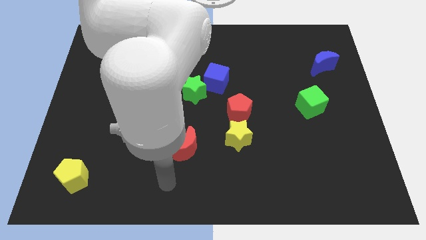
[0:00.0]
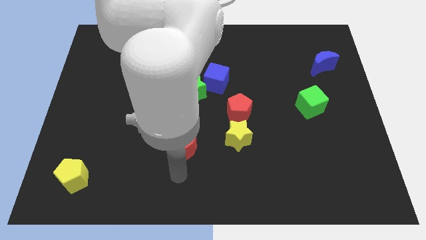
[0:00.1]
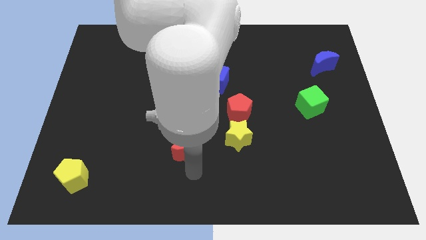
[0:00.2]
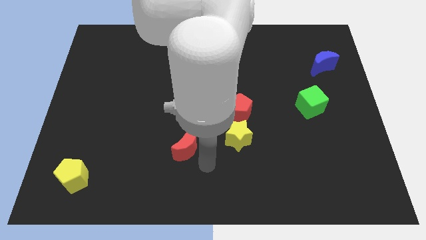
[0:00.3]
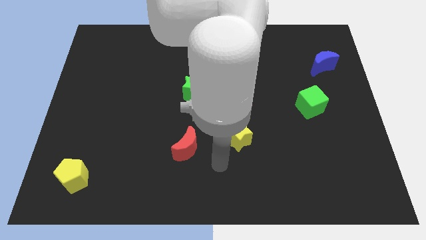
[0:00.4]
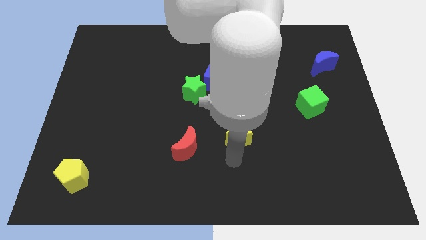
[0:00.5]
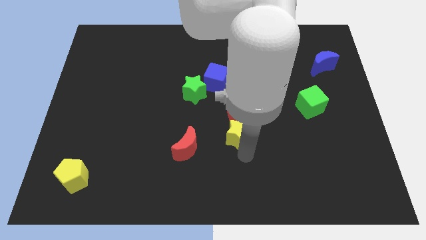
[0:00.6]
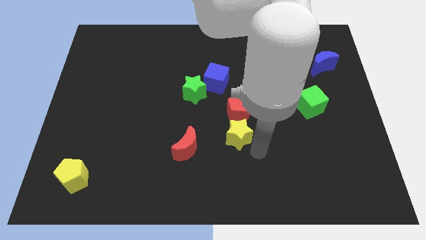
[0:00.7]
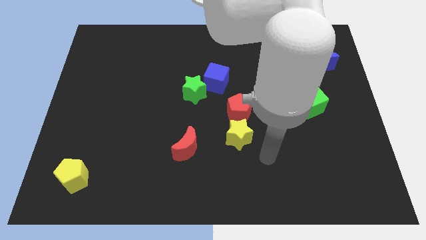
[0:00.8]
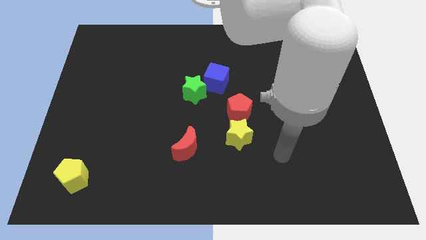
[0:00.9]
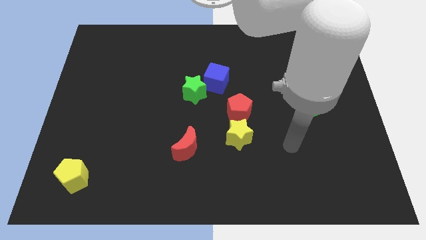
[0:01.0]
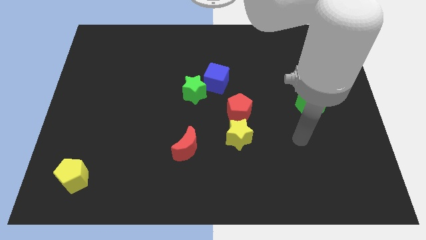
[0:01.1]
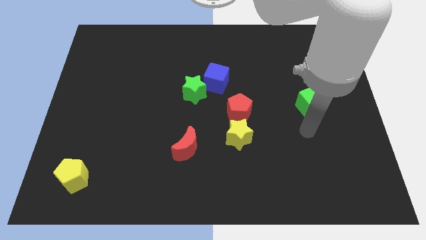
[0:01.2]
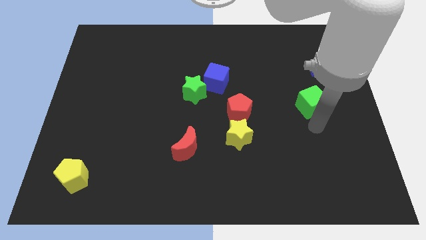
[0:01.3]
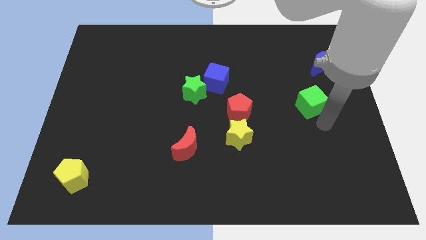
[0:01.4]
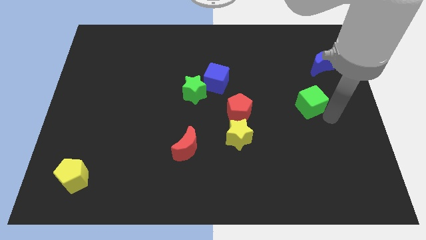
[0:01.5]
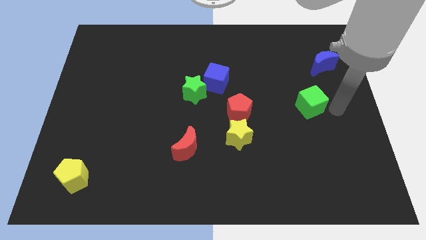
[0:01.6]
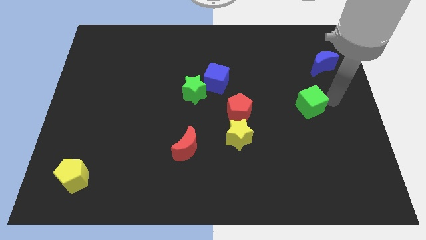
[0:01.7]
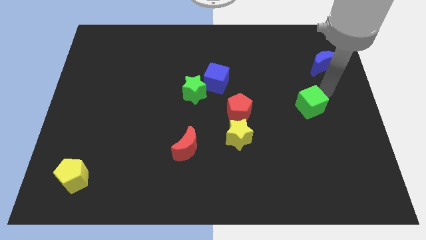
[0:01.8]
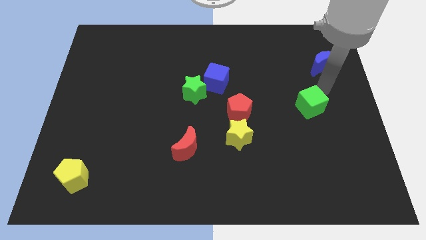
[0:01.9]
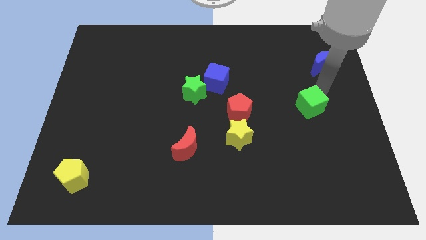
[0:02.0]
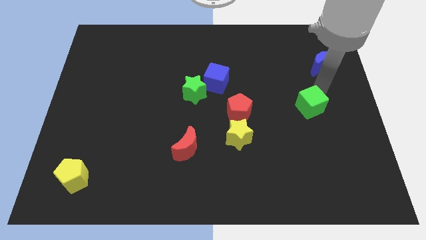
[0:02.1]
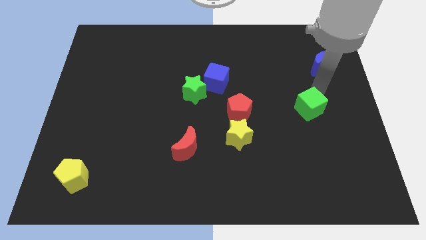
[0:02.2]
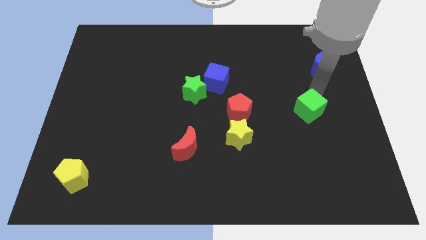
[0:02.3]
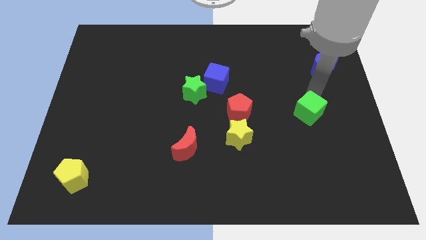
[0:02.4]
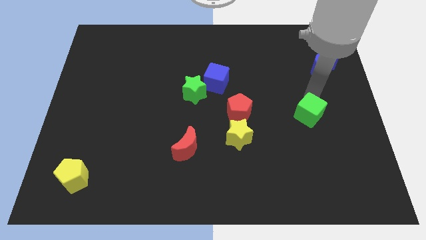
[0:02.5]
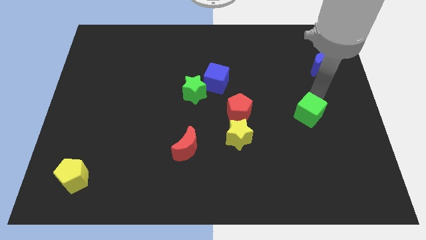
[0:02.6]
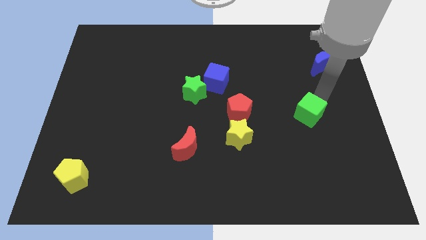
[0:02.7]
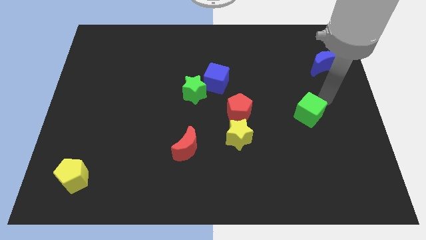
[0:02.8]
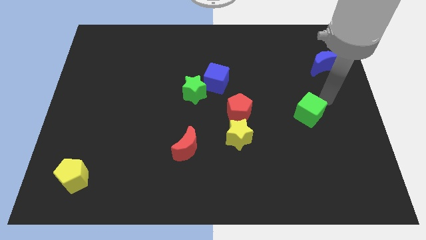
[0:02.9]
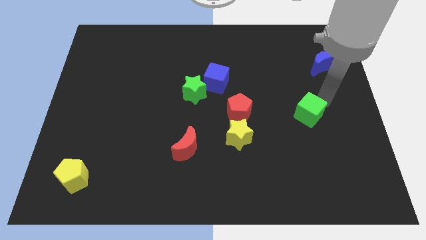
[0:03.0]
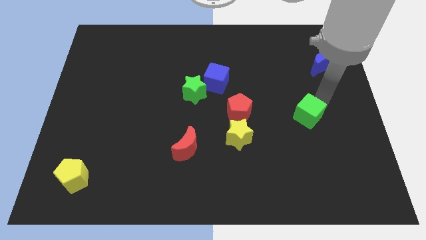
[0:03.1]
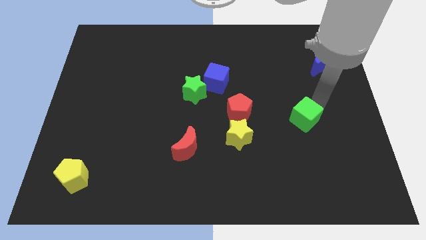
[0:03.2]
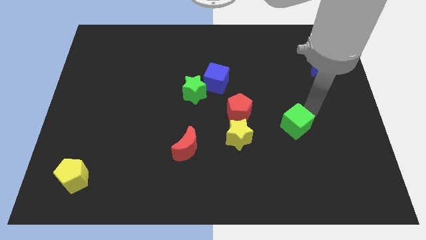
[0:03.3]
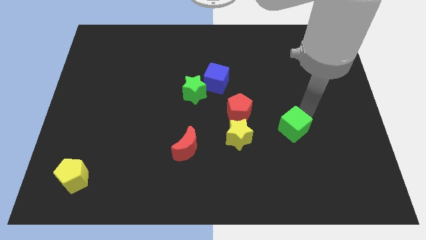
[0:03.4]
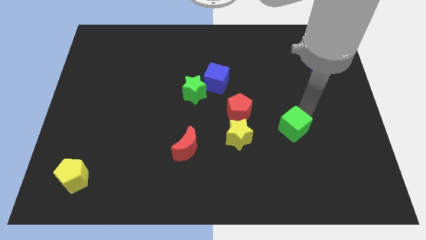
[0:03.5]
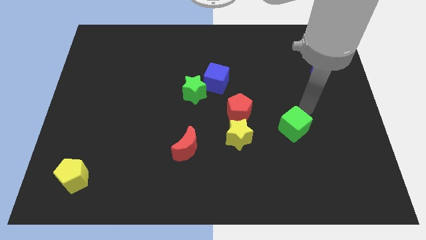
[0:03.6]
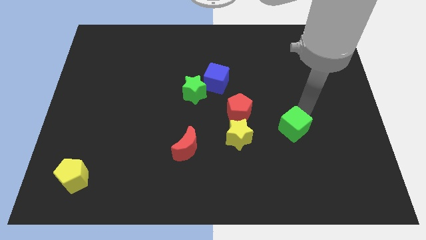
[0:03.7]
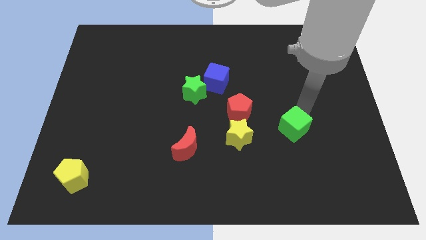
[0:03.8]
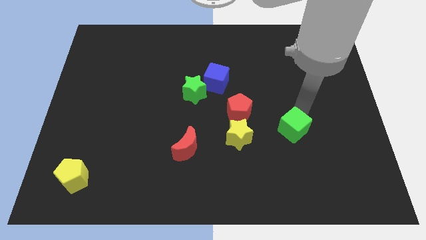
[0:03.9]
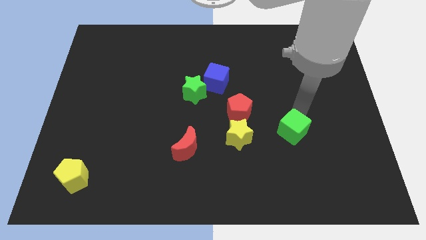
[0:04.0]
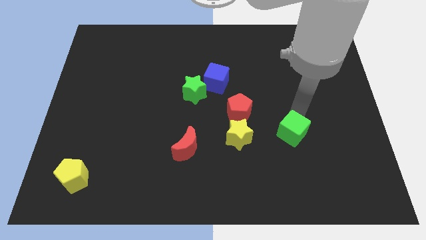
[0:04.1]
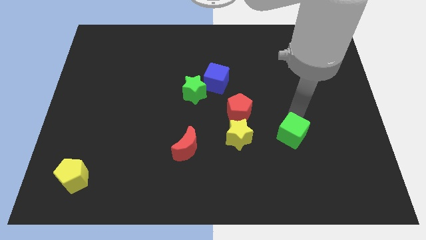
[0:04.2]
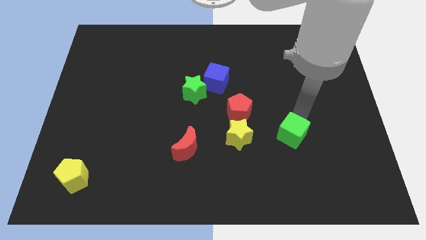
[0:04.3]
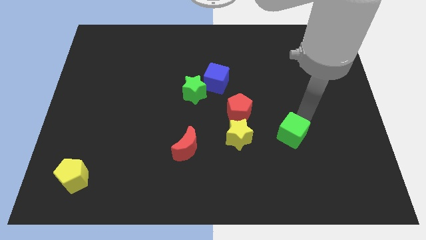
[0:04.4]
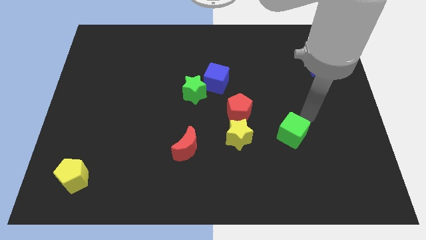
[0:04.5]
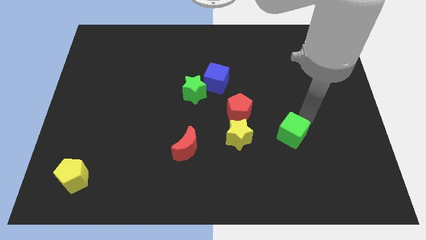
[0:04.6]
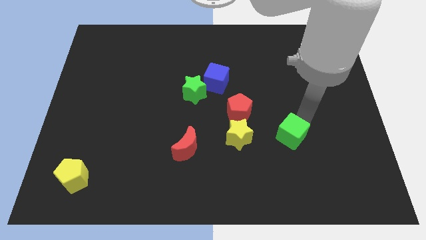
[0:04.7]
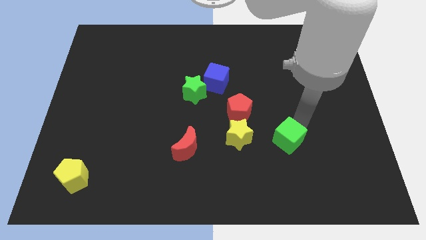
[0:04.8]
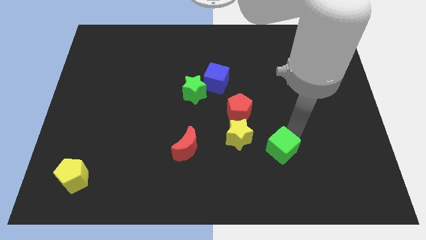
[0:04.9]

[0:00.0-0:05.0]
slide the green cube to the bottom right of the yellow star

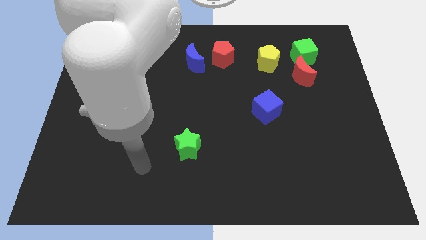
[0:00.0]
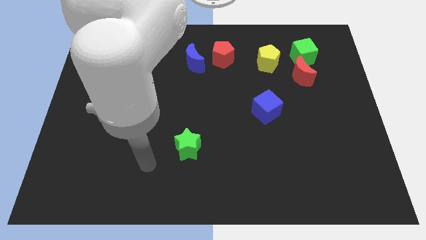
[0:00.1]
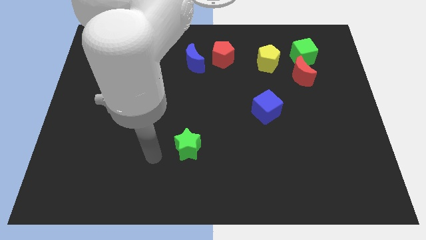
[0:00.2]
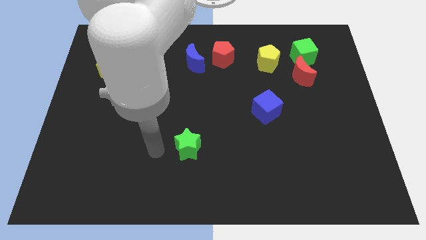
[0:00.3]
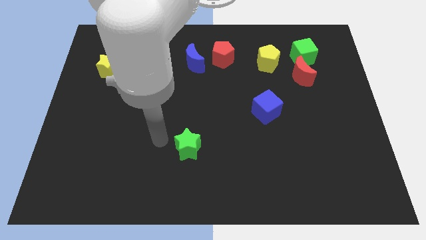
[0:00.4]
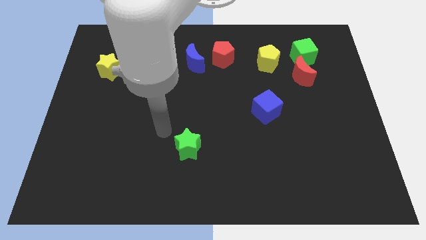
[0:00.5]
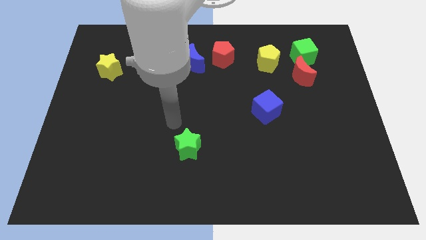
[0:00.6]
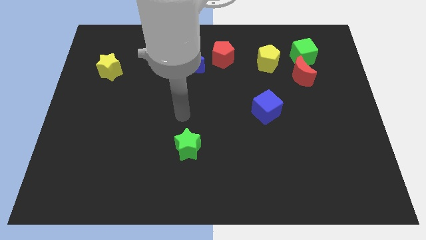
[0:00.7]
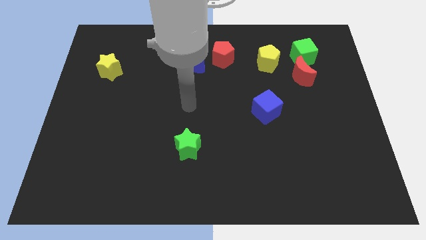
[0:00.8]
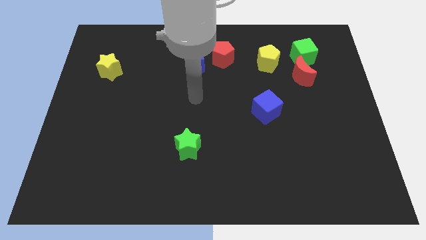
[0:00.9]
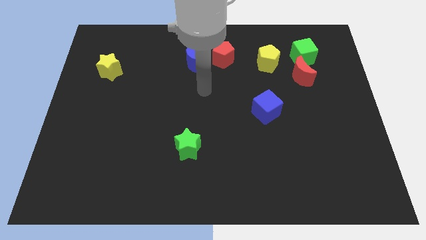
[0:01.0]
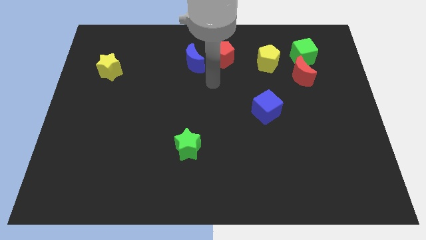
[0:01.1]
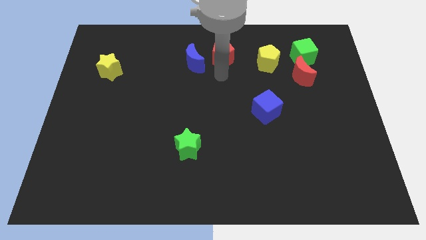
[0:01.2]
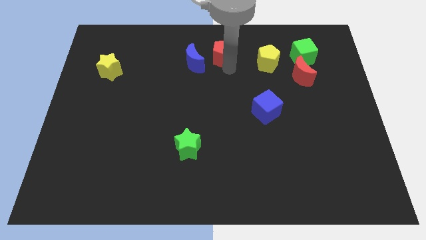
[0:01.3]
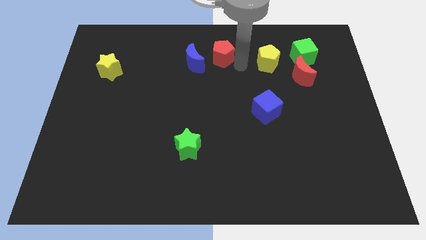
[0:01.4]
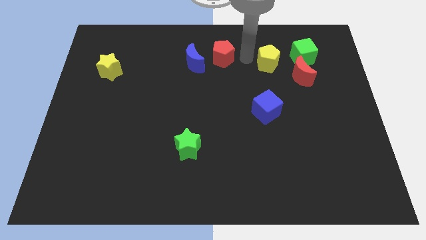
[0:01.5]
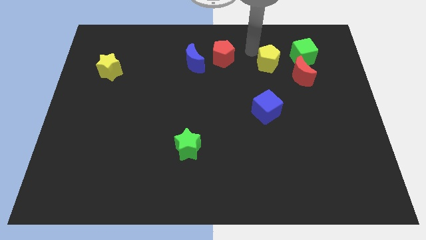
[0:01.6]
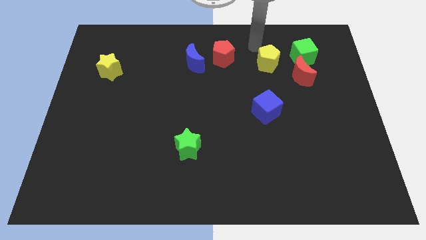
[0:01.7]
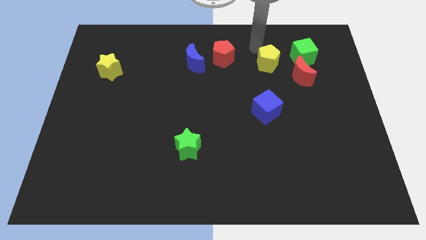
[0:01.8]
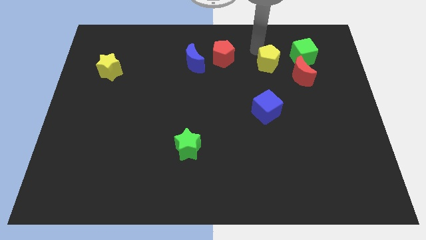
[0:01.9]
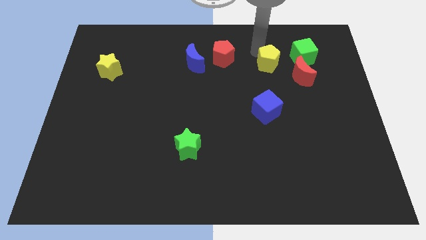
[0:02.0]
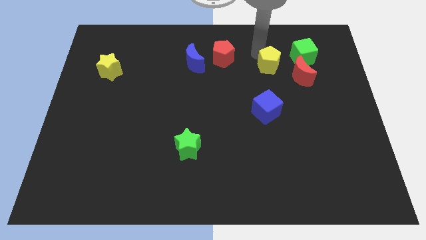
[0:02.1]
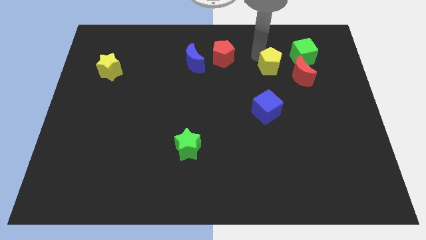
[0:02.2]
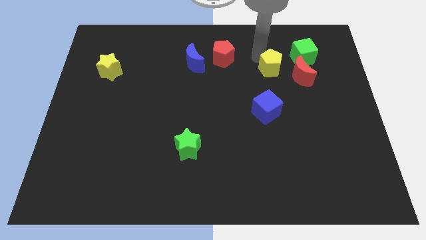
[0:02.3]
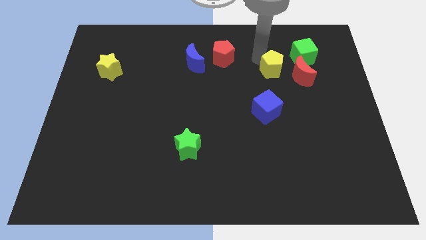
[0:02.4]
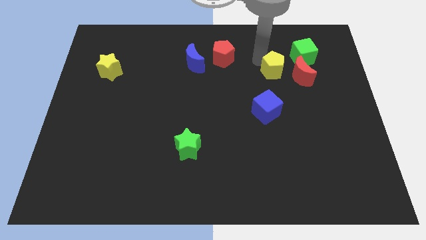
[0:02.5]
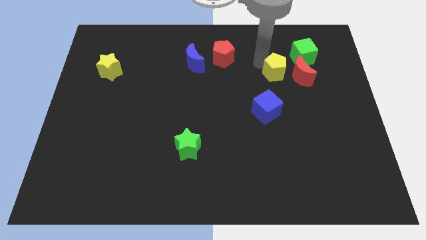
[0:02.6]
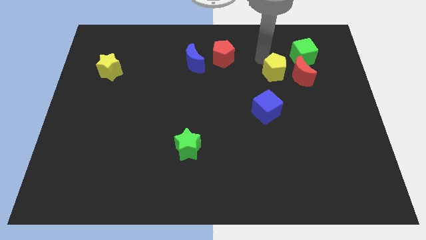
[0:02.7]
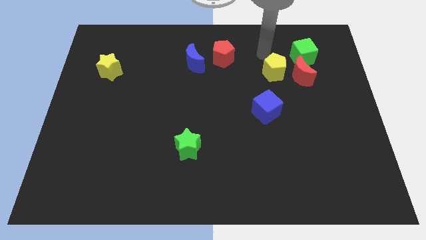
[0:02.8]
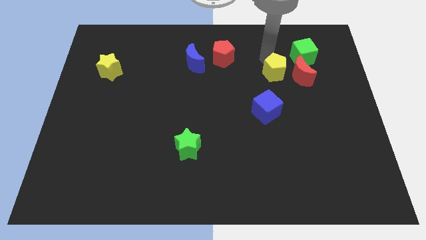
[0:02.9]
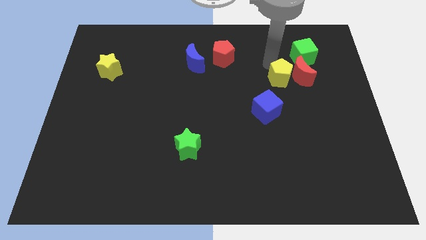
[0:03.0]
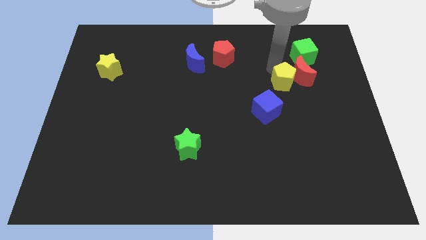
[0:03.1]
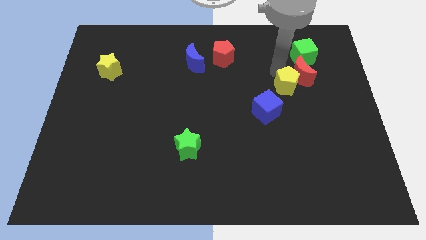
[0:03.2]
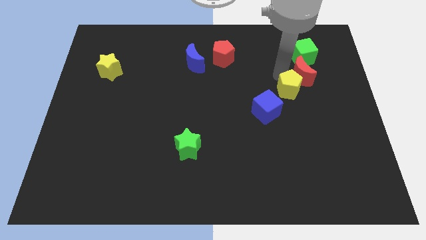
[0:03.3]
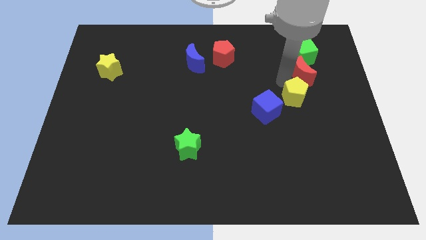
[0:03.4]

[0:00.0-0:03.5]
push the yellow pentagon right of the blue cube
